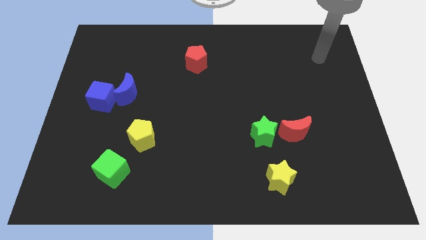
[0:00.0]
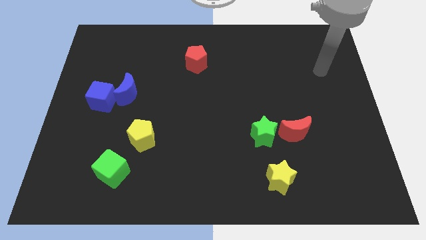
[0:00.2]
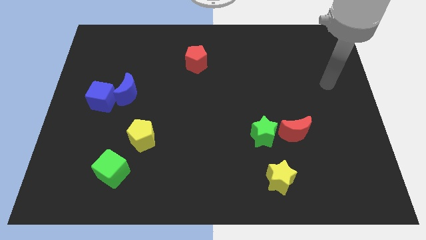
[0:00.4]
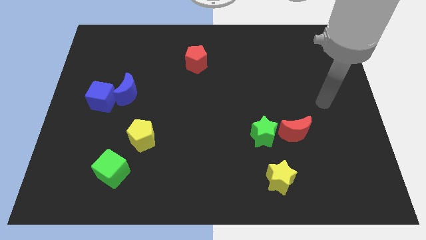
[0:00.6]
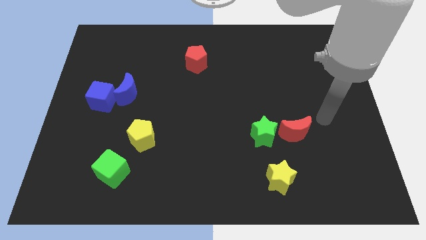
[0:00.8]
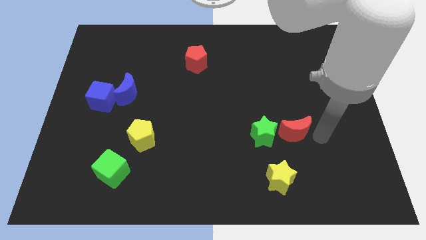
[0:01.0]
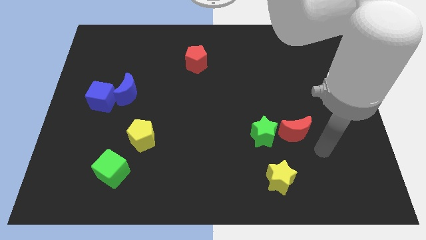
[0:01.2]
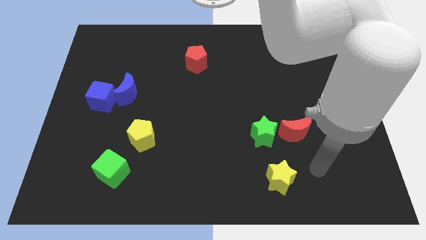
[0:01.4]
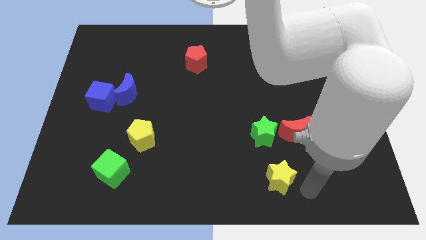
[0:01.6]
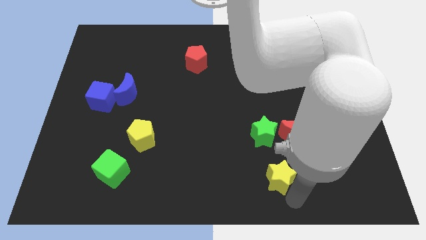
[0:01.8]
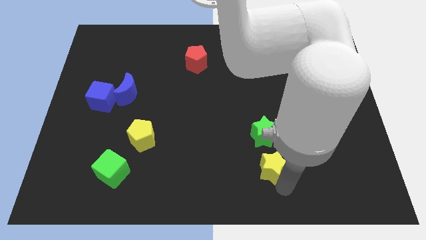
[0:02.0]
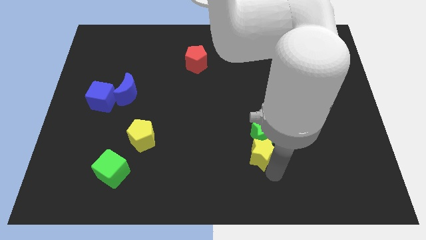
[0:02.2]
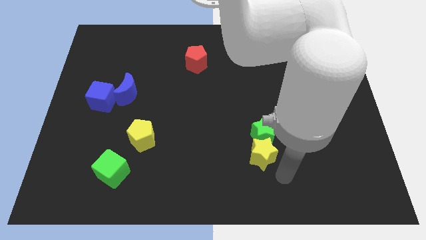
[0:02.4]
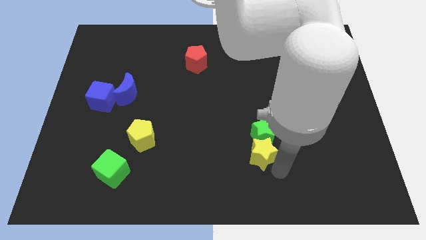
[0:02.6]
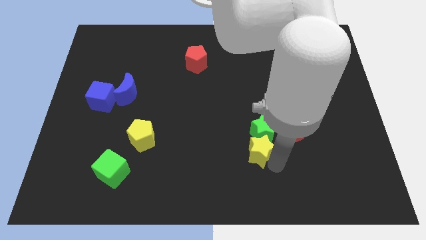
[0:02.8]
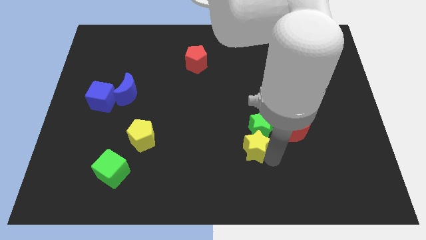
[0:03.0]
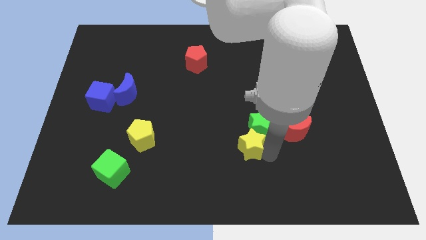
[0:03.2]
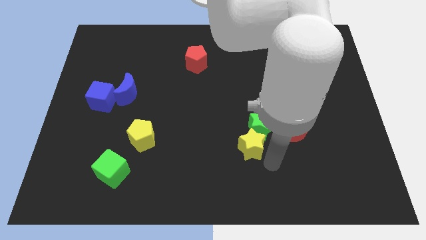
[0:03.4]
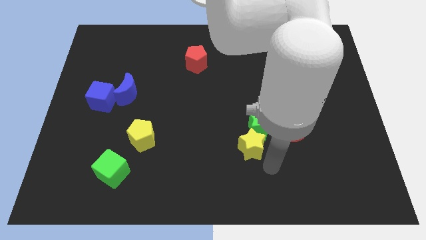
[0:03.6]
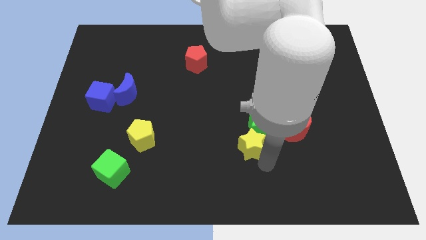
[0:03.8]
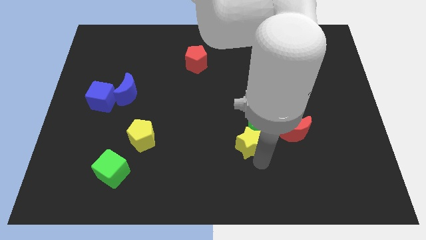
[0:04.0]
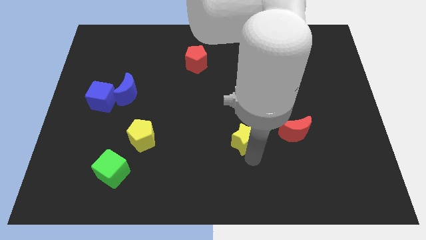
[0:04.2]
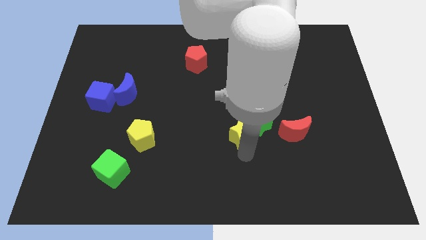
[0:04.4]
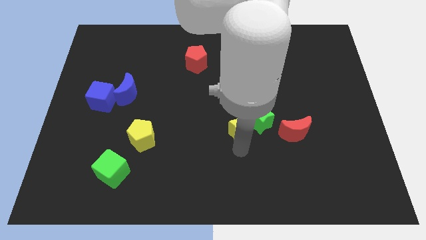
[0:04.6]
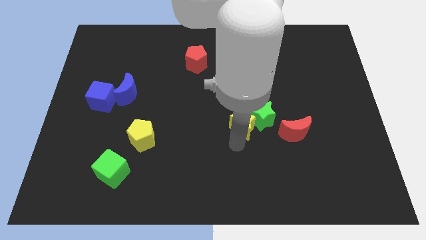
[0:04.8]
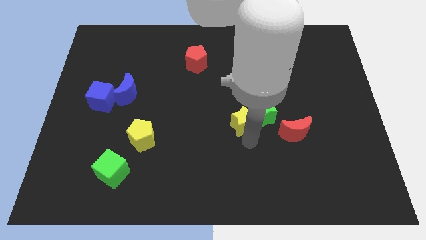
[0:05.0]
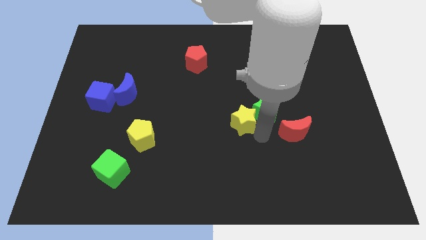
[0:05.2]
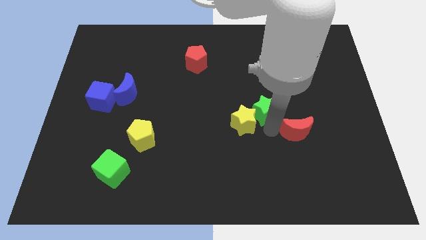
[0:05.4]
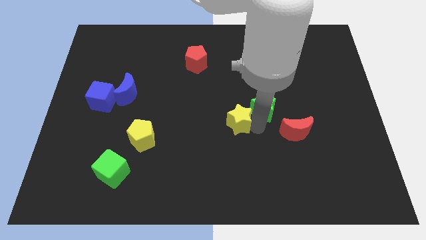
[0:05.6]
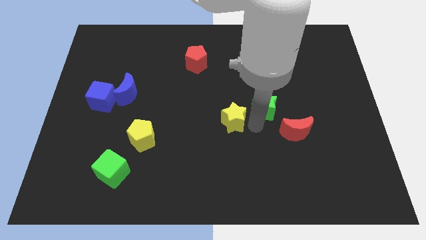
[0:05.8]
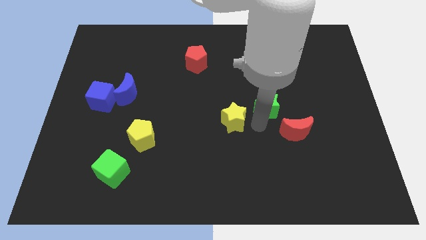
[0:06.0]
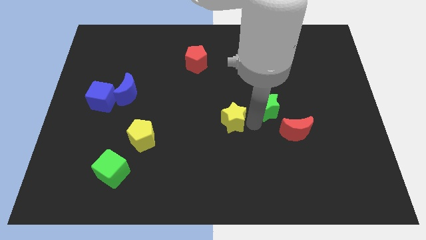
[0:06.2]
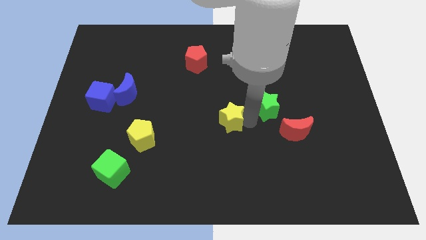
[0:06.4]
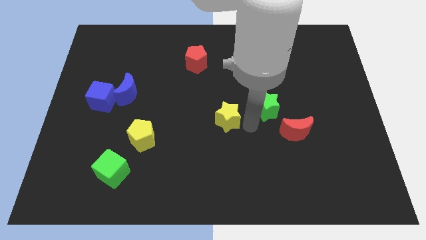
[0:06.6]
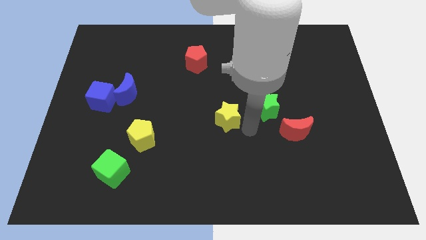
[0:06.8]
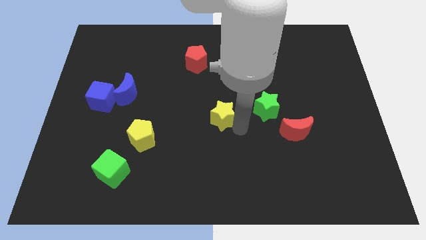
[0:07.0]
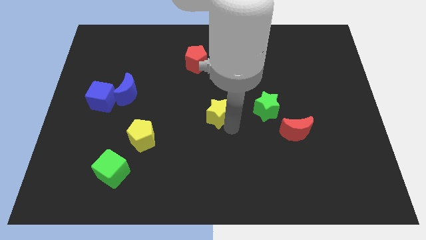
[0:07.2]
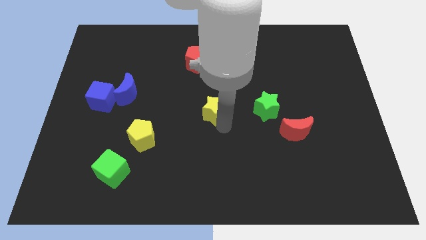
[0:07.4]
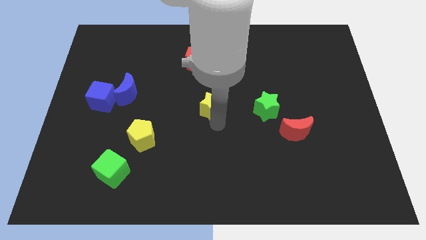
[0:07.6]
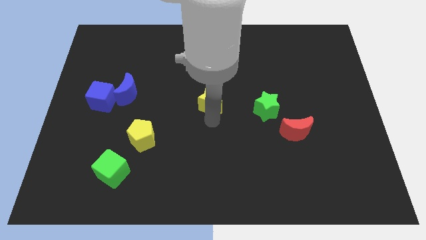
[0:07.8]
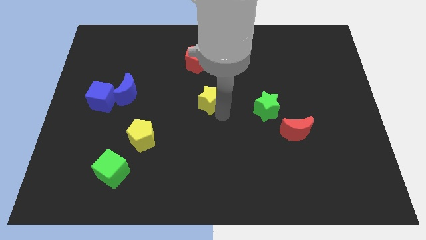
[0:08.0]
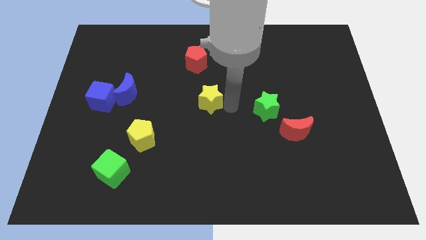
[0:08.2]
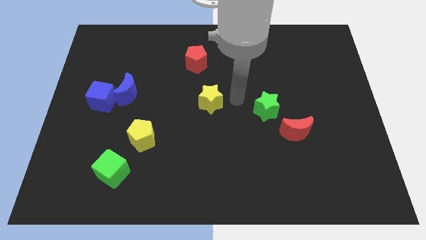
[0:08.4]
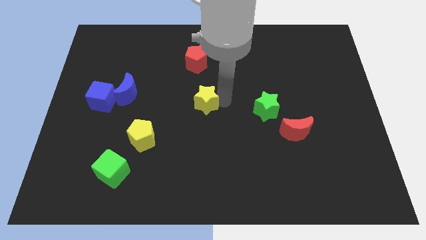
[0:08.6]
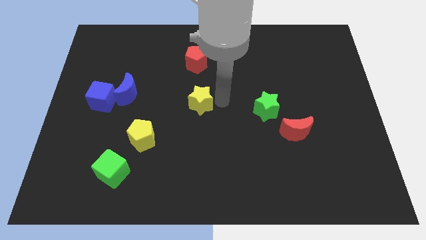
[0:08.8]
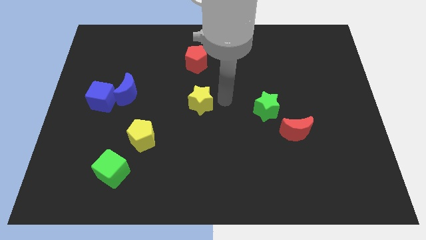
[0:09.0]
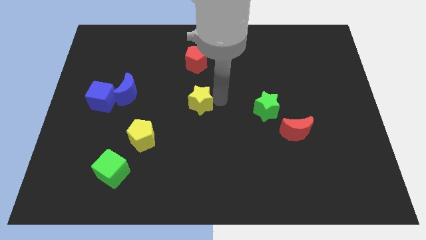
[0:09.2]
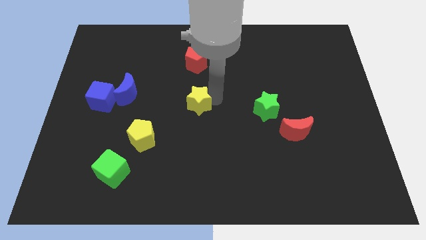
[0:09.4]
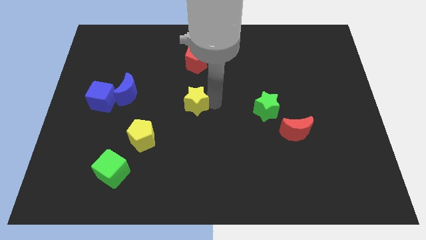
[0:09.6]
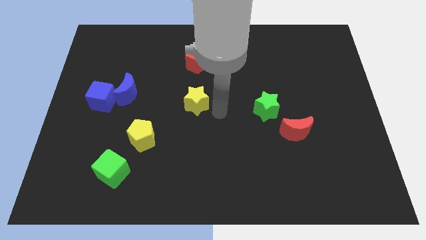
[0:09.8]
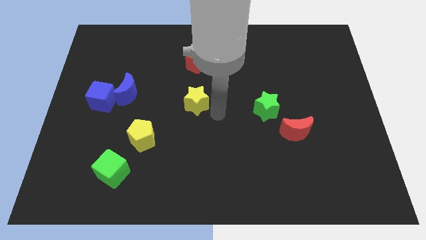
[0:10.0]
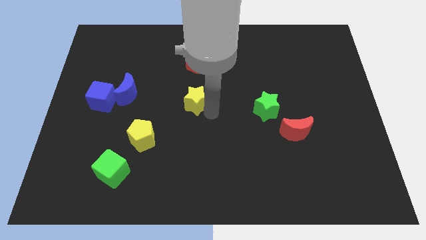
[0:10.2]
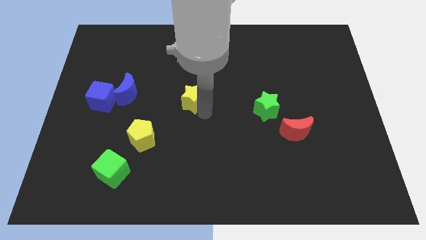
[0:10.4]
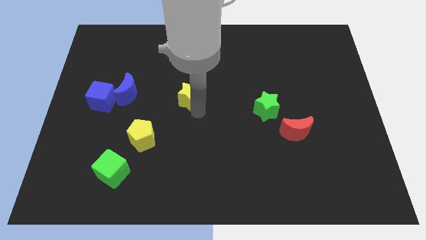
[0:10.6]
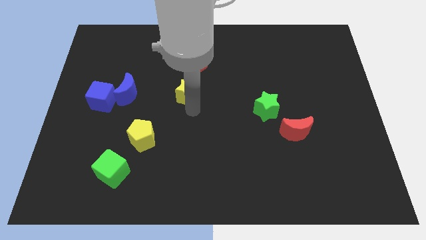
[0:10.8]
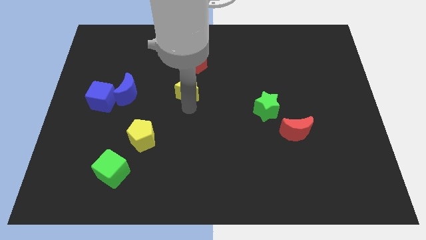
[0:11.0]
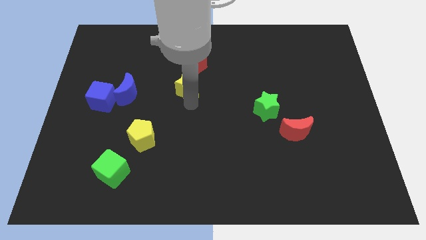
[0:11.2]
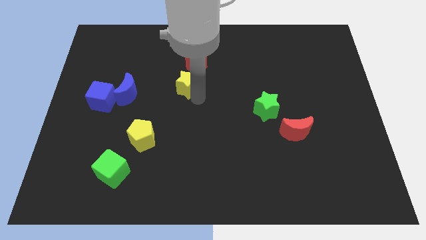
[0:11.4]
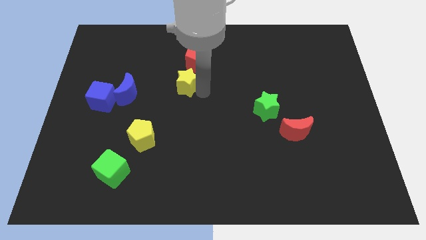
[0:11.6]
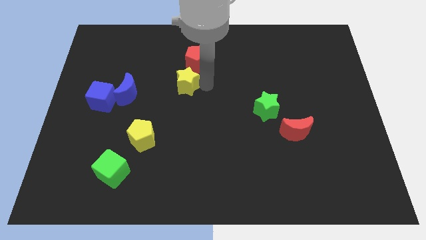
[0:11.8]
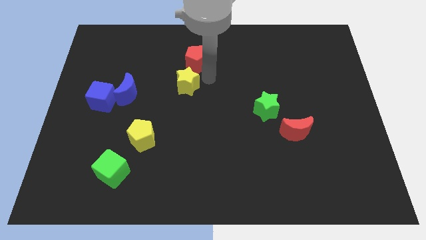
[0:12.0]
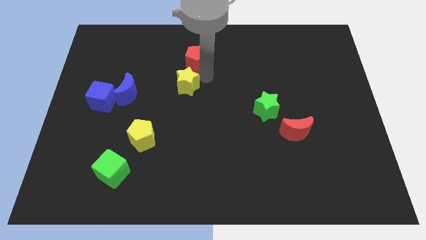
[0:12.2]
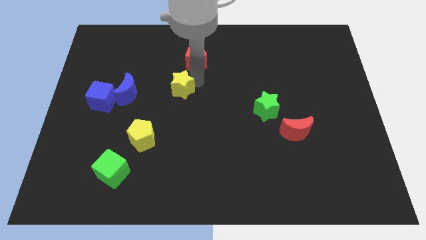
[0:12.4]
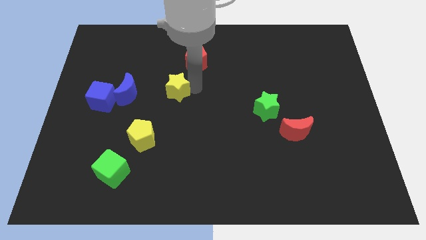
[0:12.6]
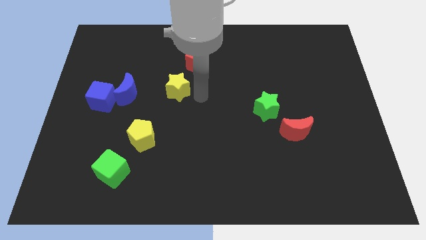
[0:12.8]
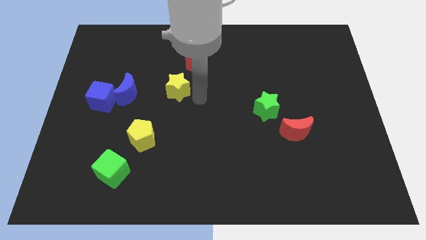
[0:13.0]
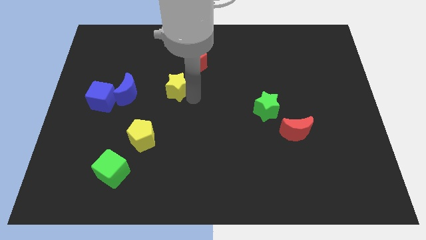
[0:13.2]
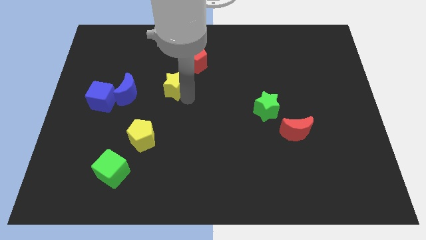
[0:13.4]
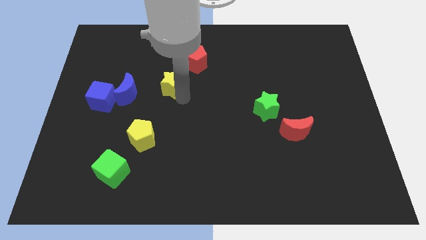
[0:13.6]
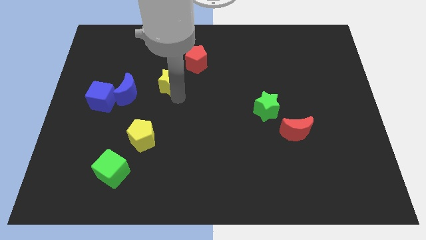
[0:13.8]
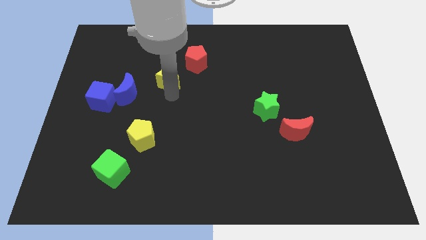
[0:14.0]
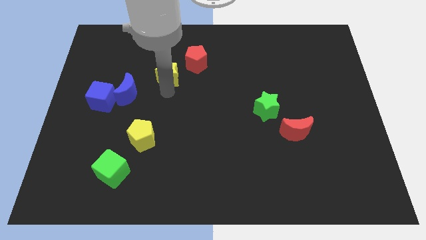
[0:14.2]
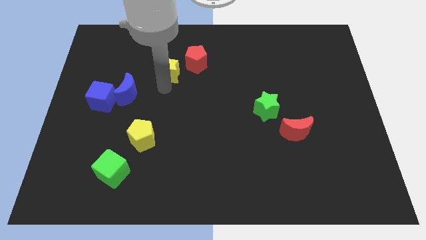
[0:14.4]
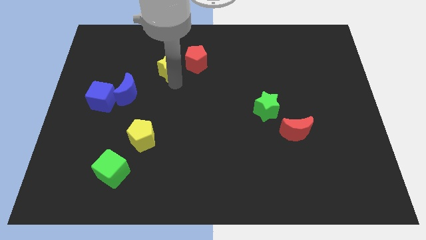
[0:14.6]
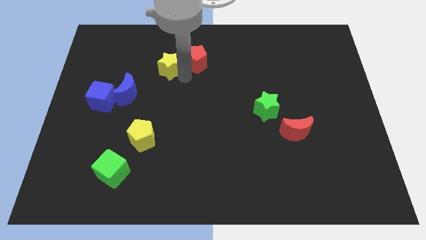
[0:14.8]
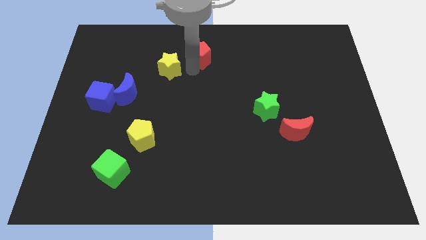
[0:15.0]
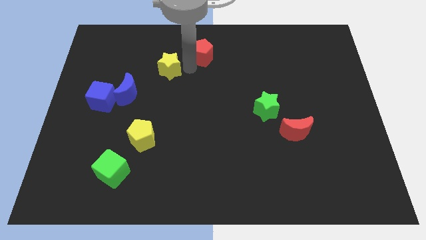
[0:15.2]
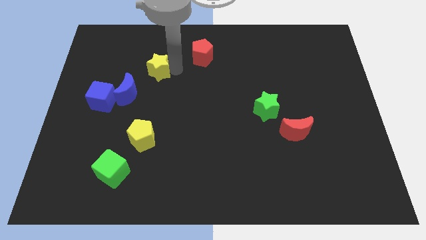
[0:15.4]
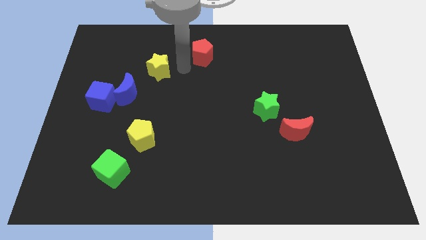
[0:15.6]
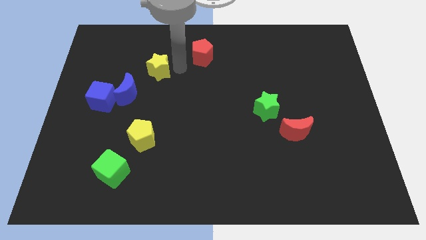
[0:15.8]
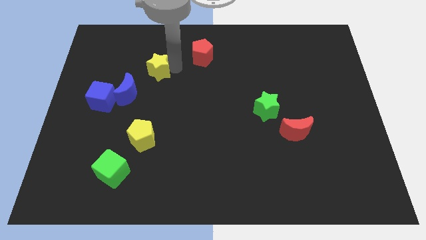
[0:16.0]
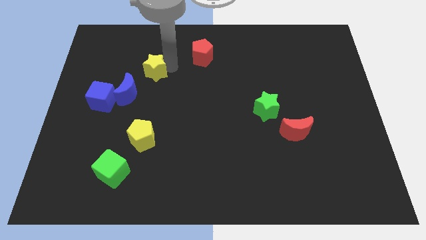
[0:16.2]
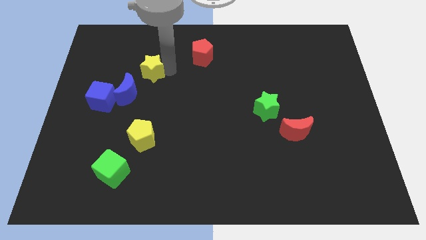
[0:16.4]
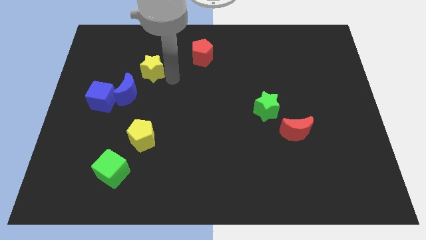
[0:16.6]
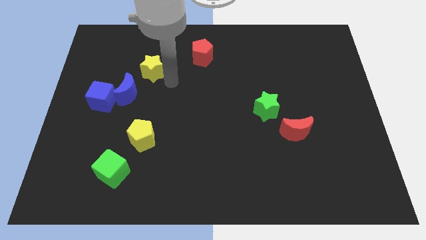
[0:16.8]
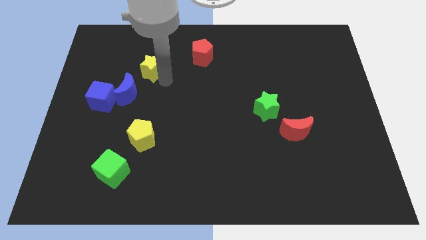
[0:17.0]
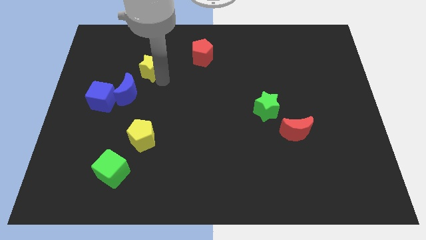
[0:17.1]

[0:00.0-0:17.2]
slide the yellow star above the blue moon
